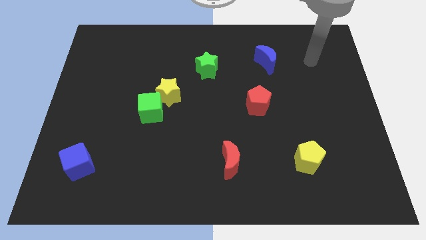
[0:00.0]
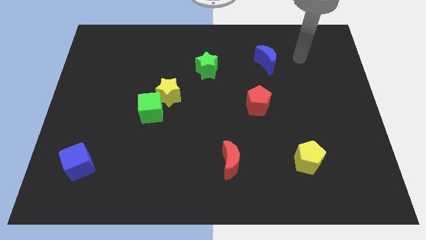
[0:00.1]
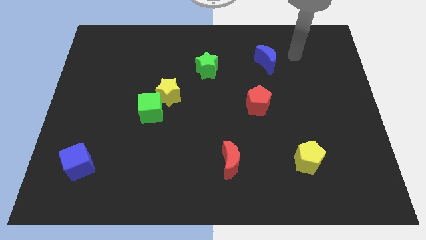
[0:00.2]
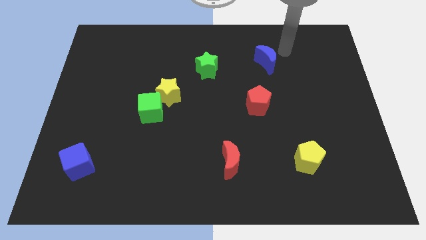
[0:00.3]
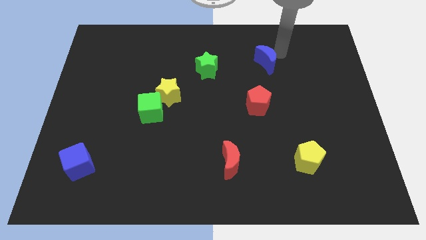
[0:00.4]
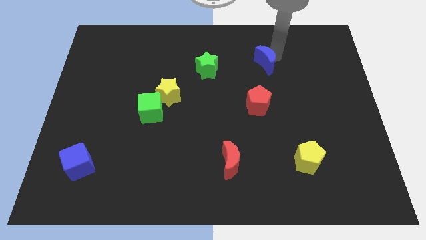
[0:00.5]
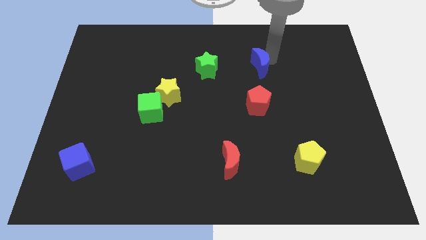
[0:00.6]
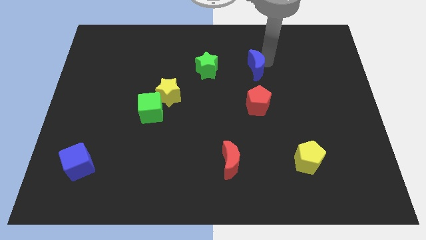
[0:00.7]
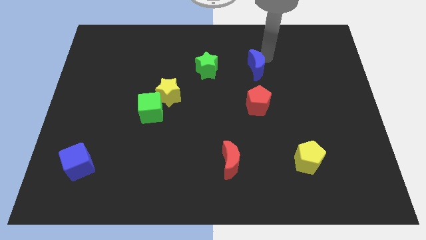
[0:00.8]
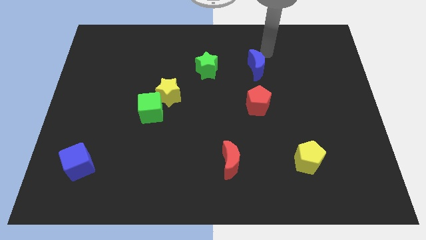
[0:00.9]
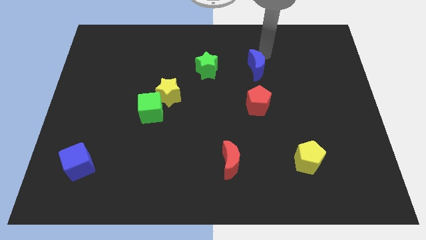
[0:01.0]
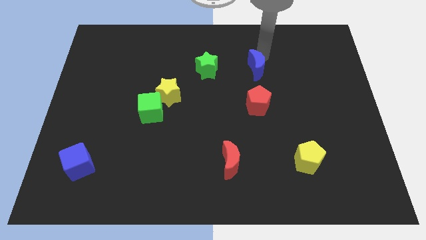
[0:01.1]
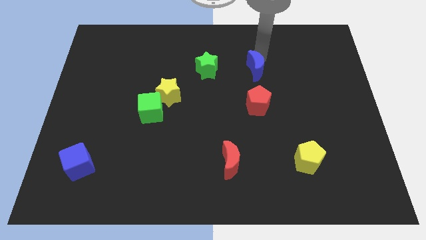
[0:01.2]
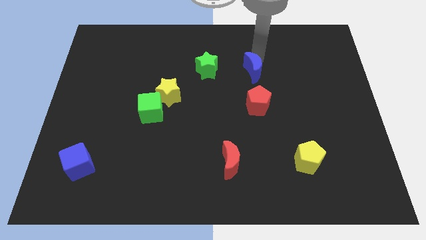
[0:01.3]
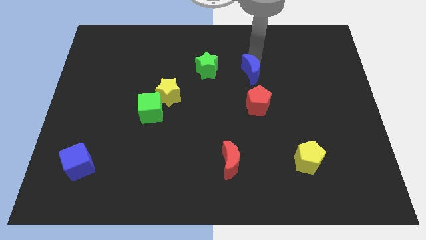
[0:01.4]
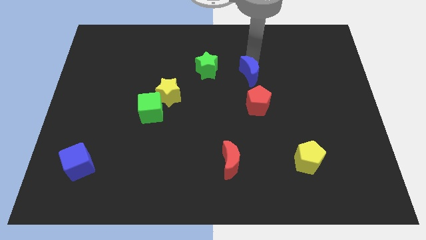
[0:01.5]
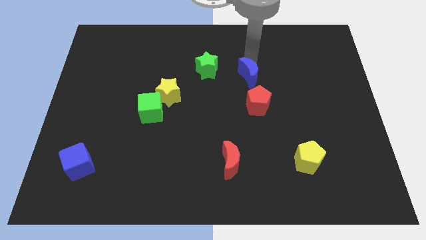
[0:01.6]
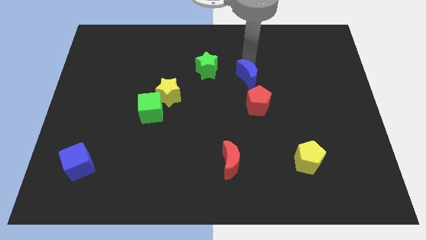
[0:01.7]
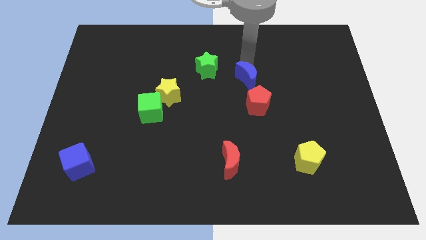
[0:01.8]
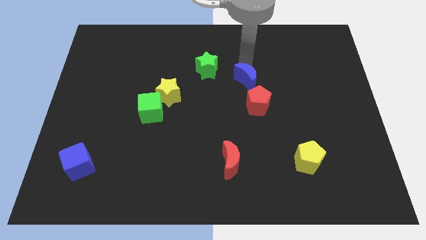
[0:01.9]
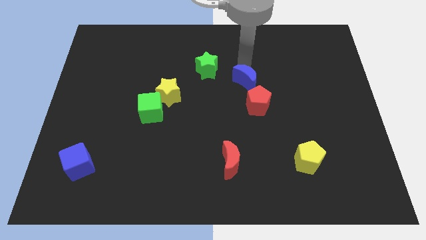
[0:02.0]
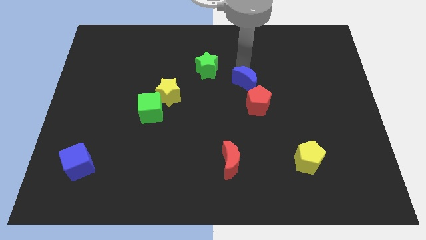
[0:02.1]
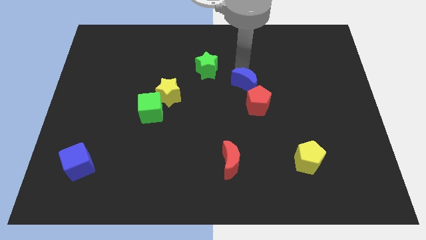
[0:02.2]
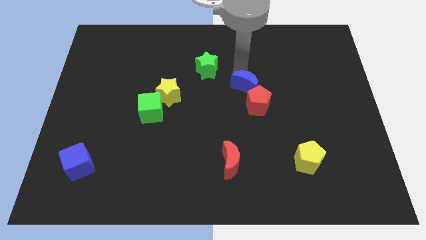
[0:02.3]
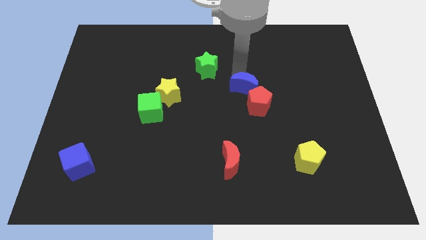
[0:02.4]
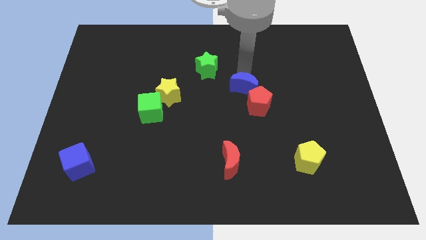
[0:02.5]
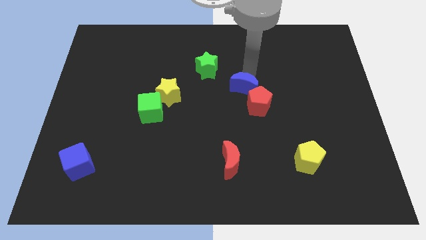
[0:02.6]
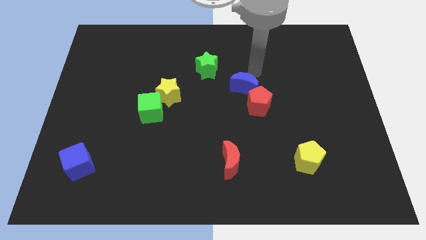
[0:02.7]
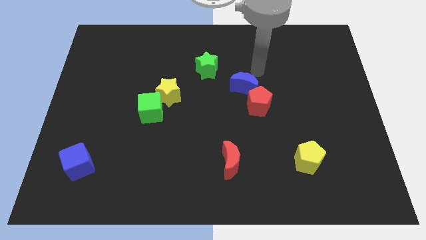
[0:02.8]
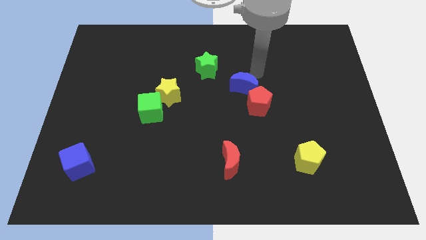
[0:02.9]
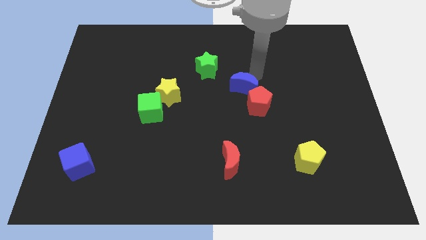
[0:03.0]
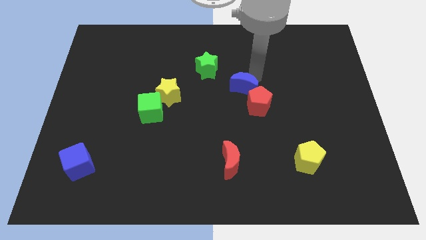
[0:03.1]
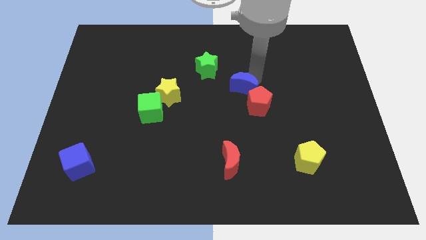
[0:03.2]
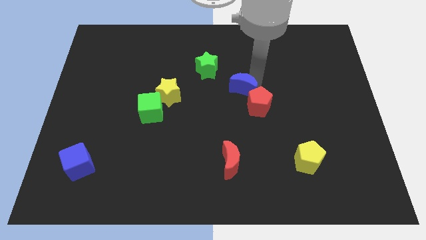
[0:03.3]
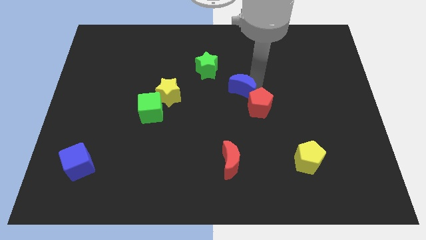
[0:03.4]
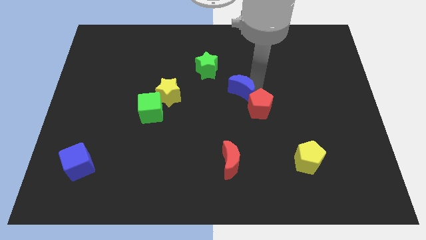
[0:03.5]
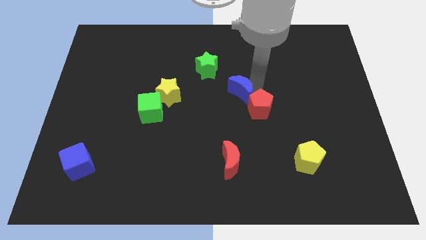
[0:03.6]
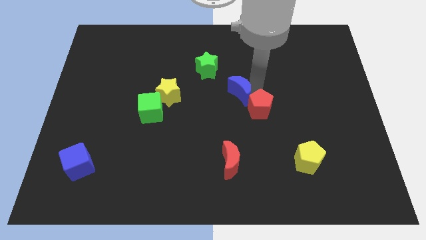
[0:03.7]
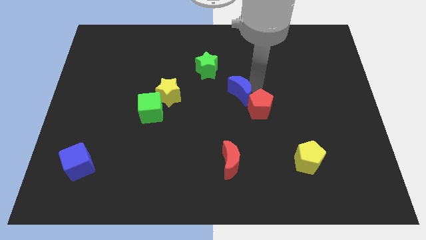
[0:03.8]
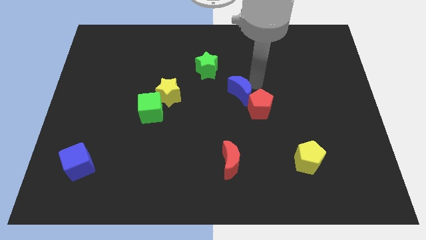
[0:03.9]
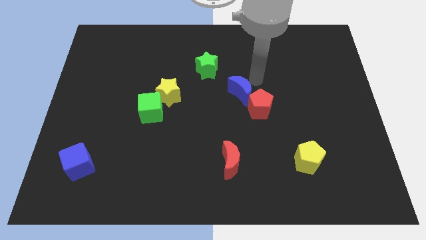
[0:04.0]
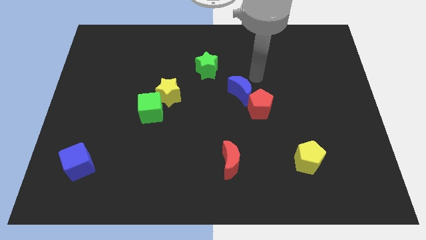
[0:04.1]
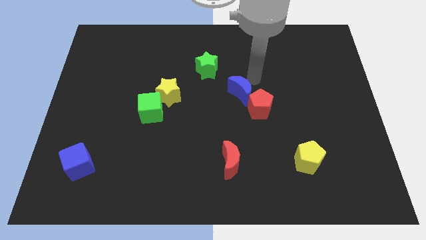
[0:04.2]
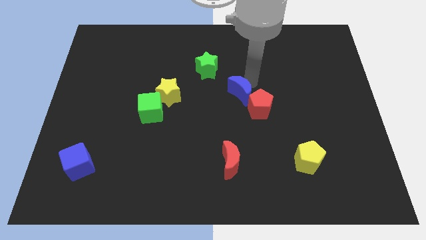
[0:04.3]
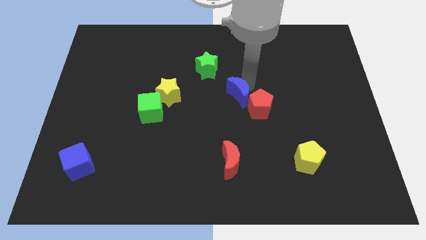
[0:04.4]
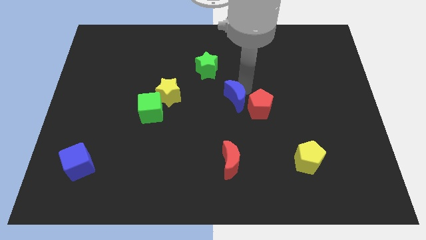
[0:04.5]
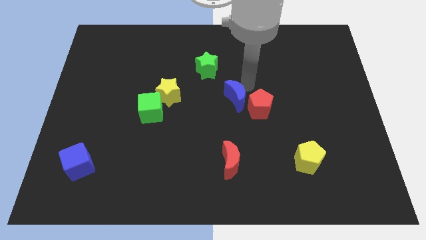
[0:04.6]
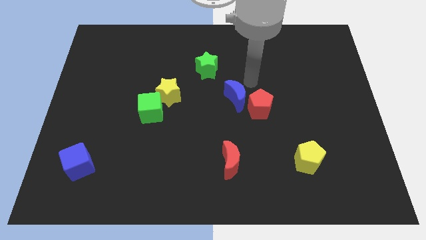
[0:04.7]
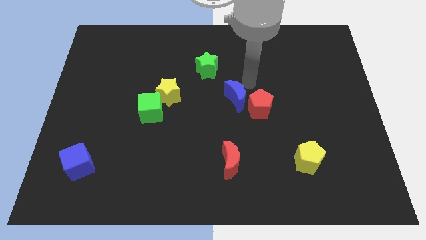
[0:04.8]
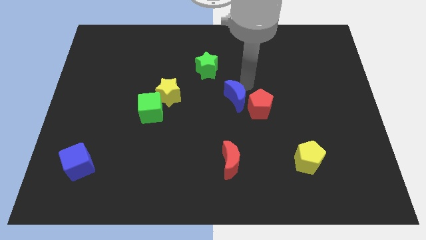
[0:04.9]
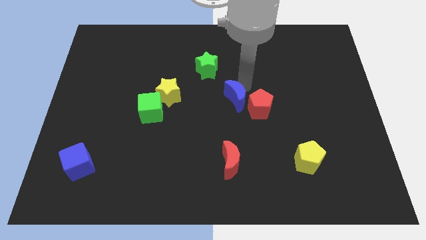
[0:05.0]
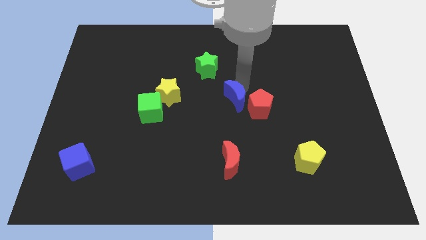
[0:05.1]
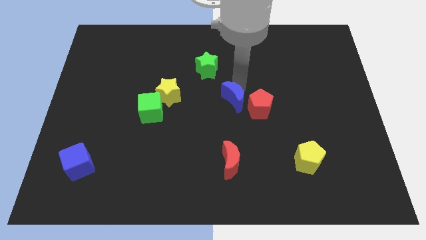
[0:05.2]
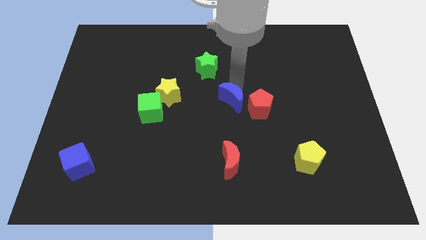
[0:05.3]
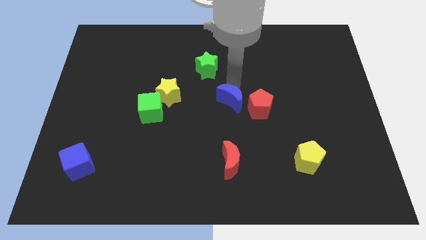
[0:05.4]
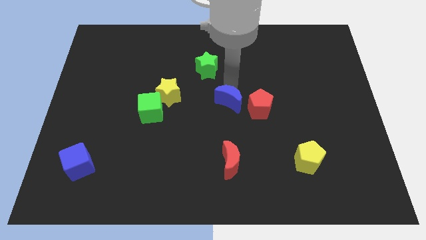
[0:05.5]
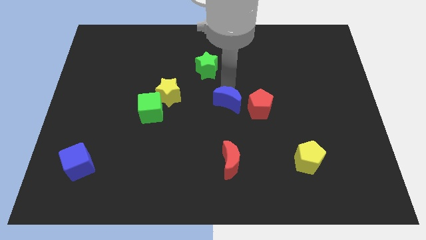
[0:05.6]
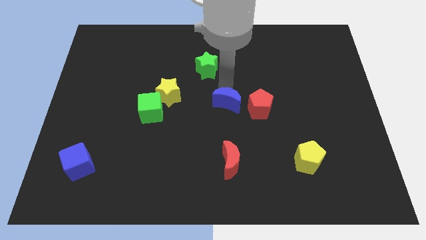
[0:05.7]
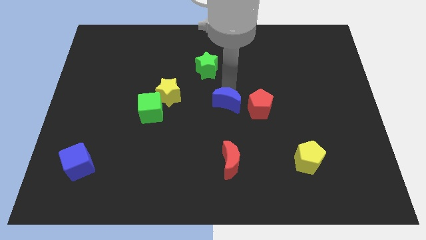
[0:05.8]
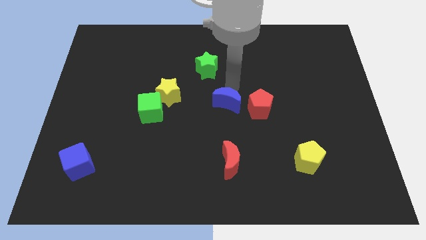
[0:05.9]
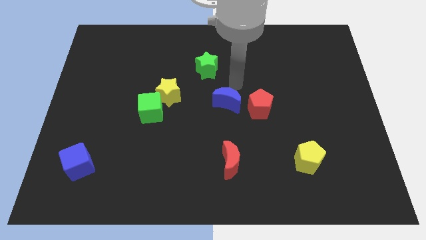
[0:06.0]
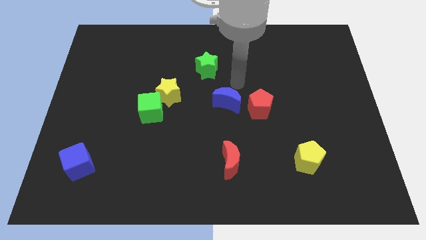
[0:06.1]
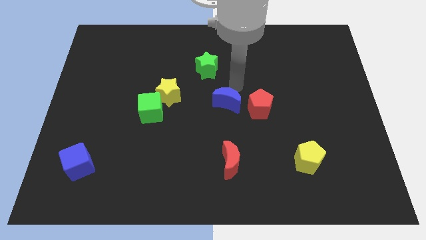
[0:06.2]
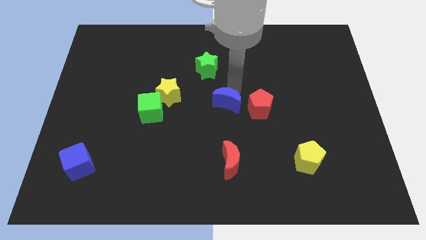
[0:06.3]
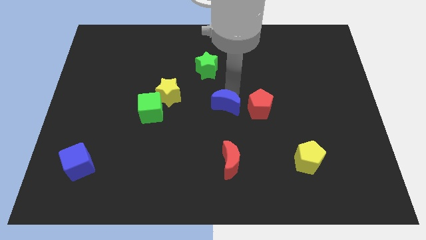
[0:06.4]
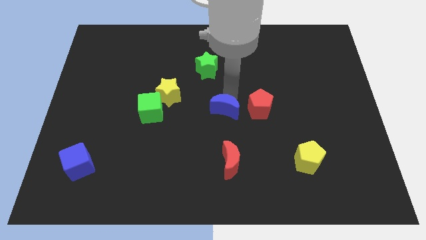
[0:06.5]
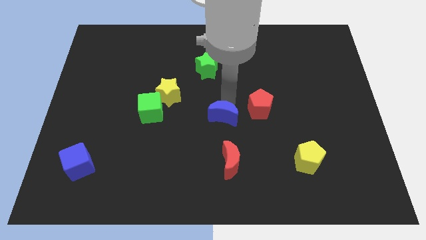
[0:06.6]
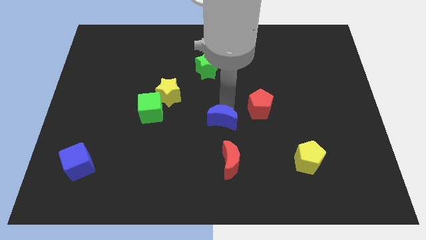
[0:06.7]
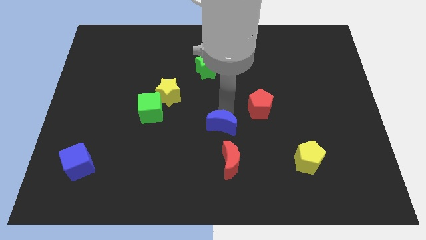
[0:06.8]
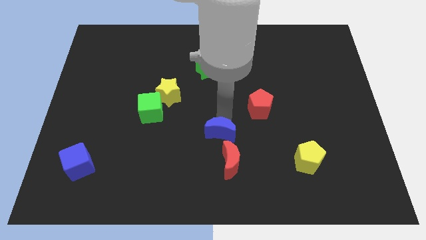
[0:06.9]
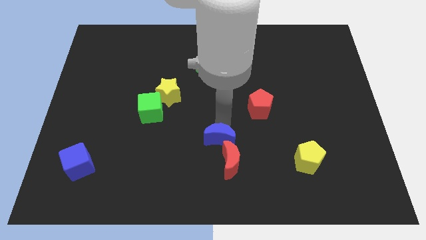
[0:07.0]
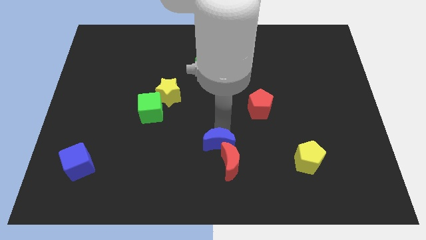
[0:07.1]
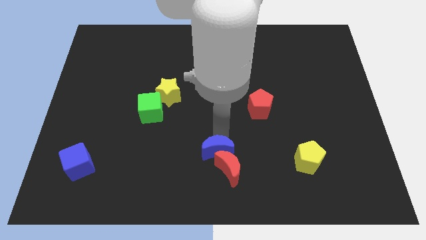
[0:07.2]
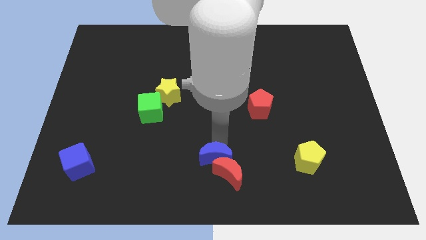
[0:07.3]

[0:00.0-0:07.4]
put the blue moon to the bottom
